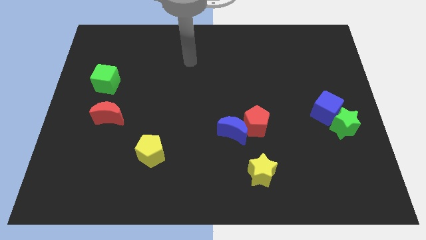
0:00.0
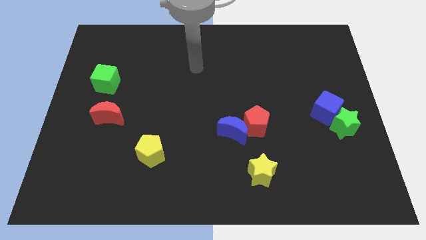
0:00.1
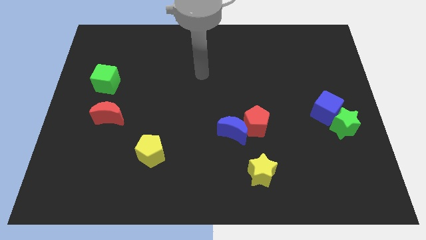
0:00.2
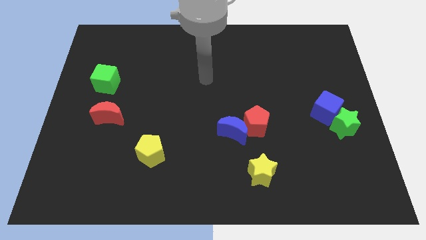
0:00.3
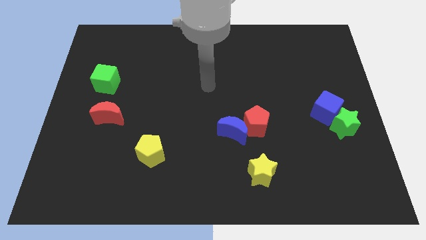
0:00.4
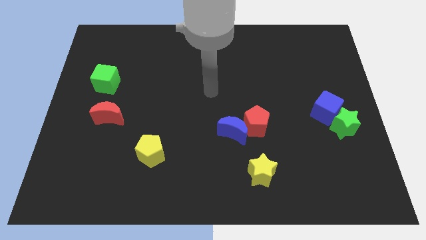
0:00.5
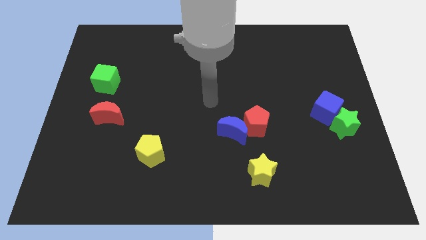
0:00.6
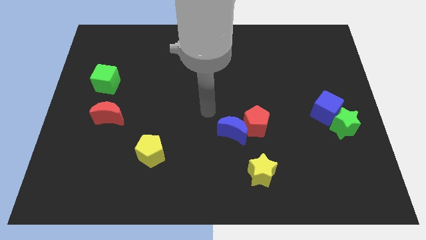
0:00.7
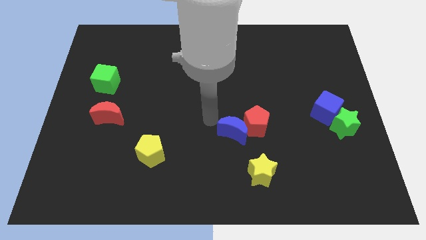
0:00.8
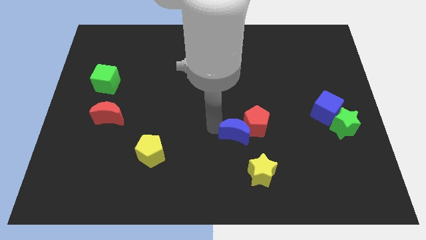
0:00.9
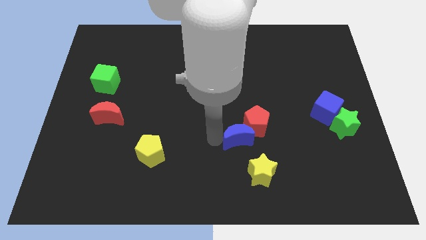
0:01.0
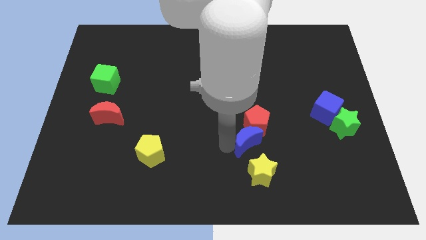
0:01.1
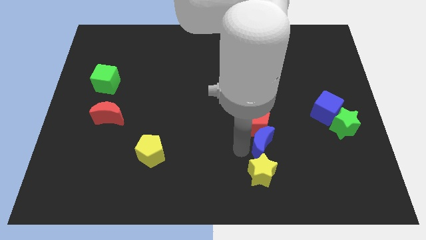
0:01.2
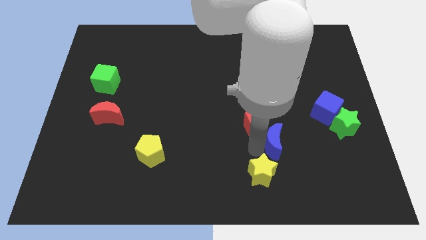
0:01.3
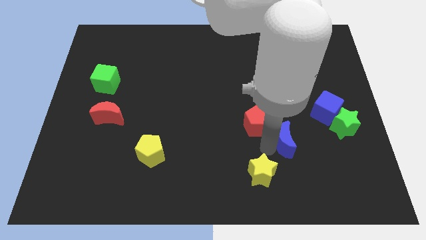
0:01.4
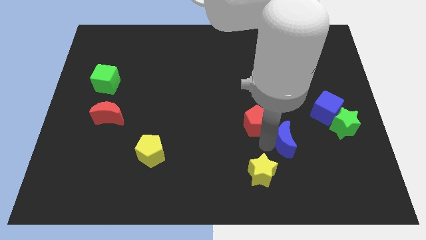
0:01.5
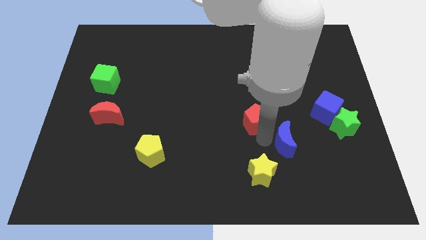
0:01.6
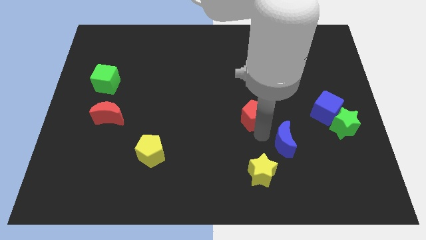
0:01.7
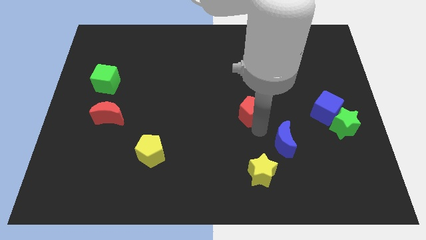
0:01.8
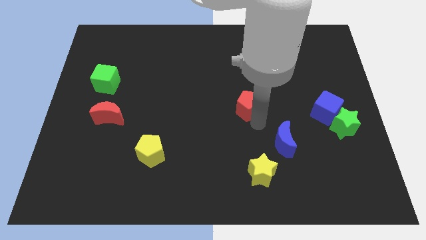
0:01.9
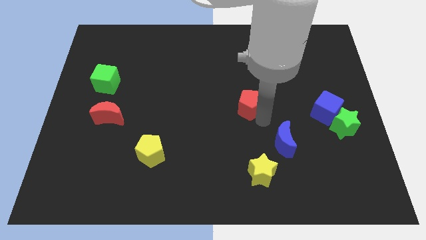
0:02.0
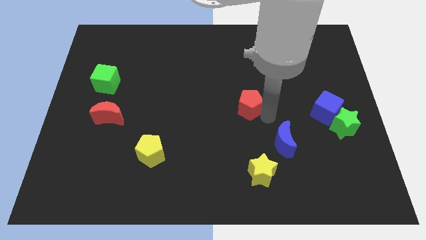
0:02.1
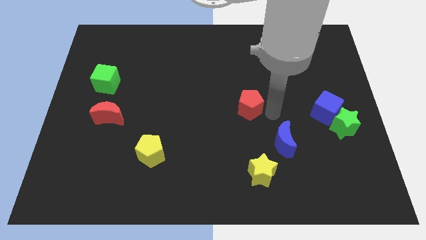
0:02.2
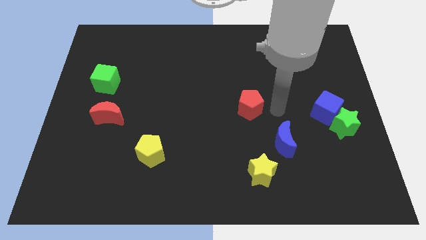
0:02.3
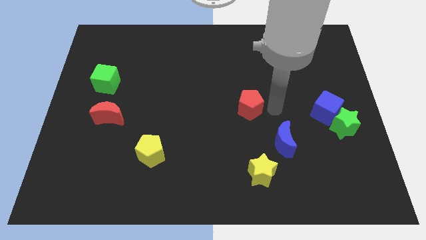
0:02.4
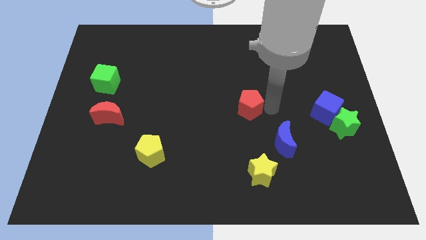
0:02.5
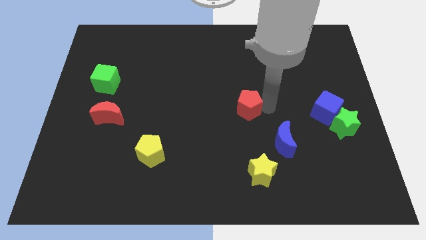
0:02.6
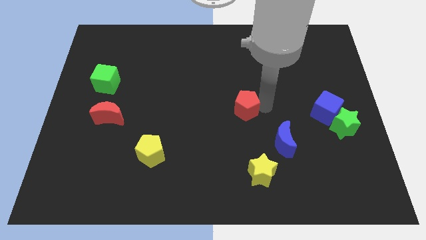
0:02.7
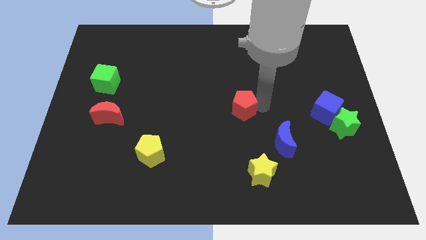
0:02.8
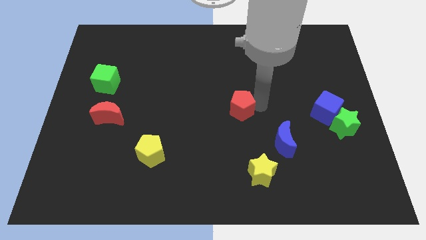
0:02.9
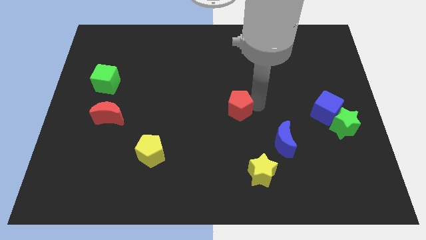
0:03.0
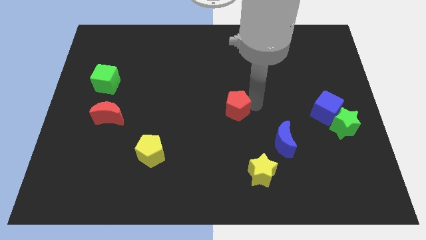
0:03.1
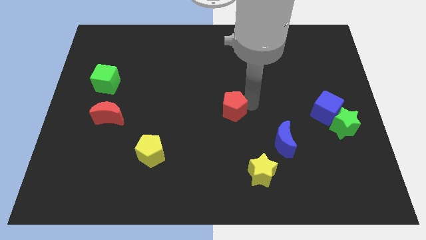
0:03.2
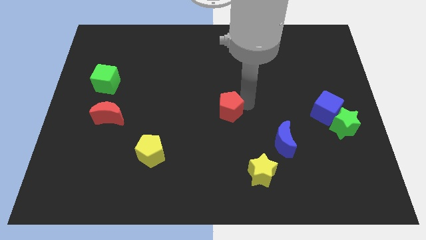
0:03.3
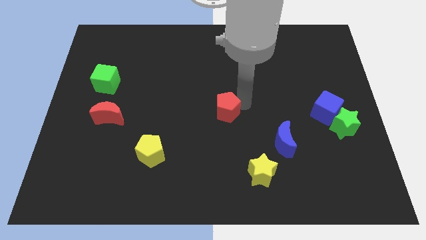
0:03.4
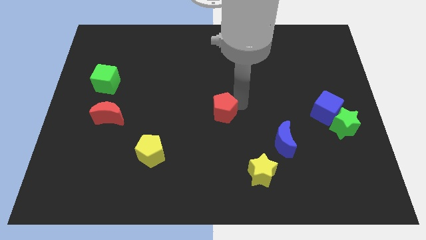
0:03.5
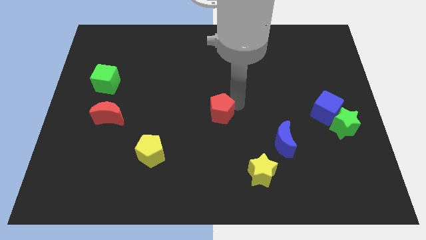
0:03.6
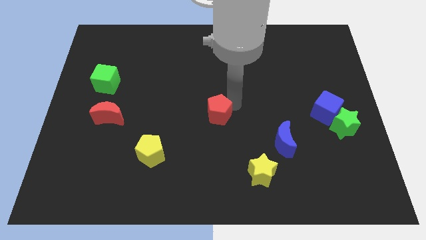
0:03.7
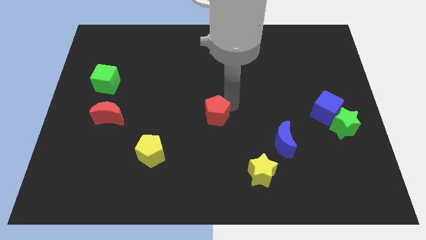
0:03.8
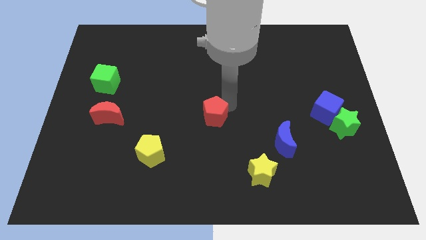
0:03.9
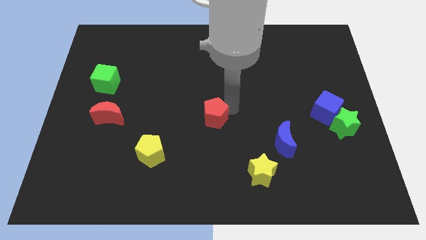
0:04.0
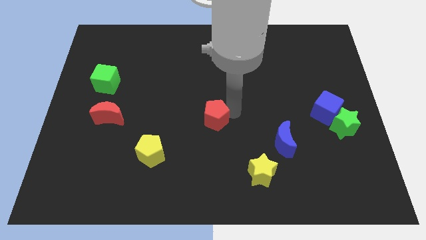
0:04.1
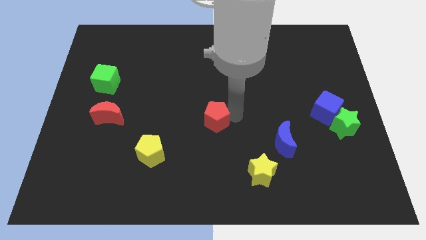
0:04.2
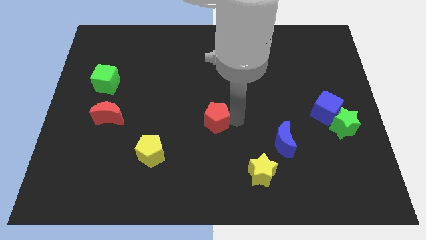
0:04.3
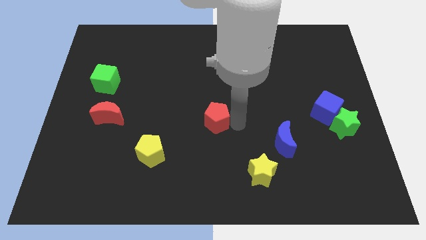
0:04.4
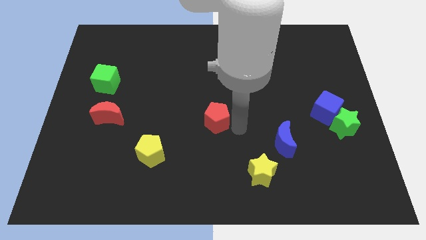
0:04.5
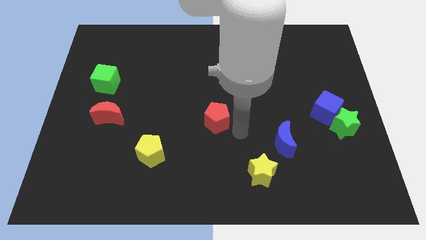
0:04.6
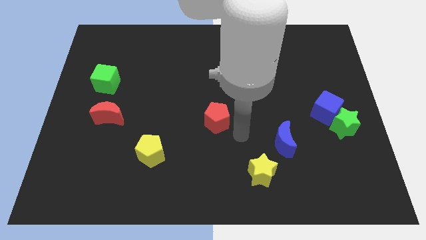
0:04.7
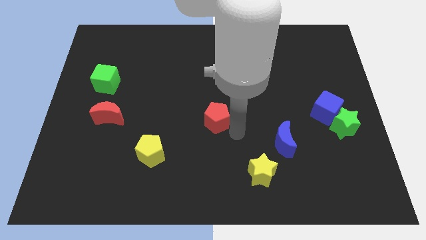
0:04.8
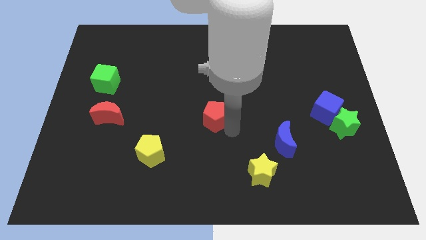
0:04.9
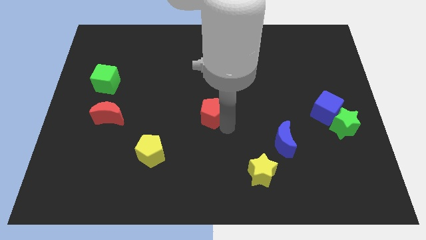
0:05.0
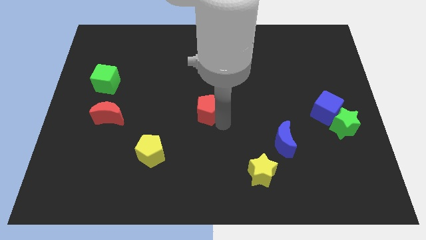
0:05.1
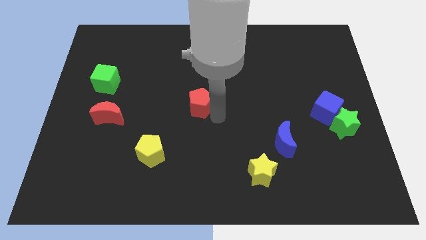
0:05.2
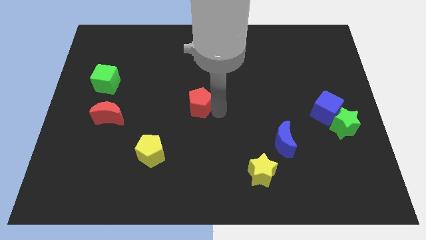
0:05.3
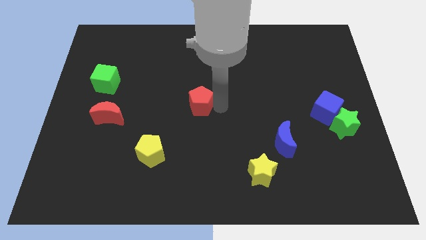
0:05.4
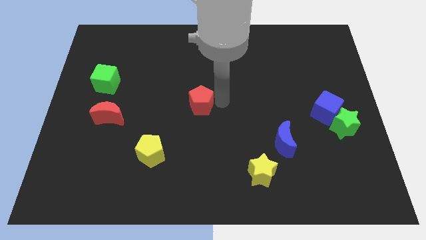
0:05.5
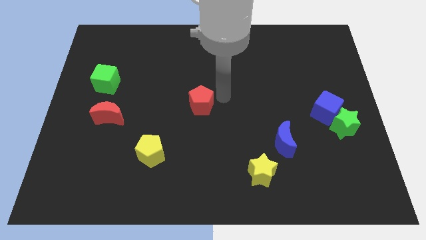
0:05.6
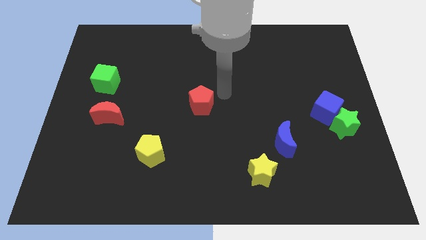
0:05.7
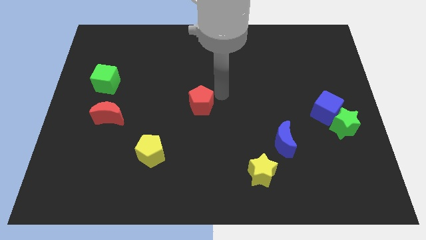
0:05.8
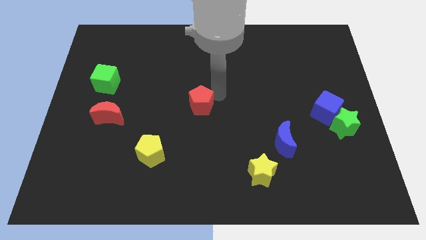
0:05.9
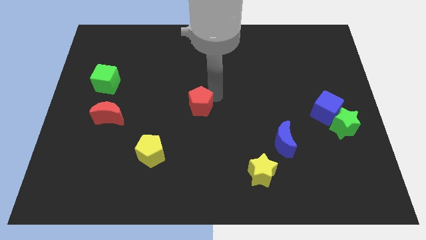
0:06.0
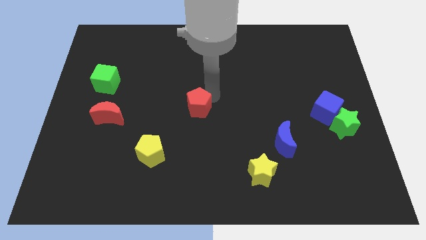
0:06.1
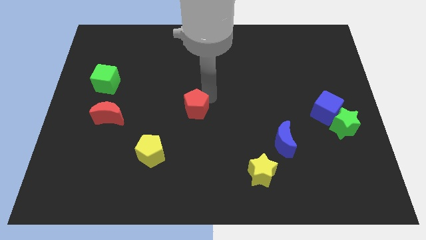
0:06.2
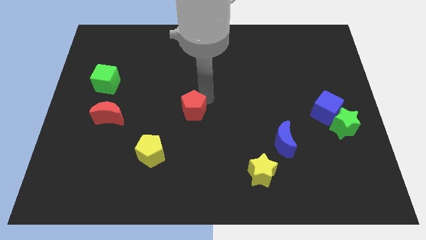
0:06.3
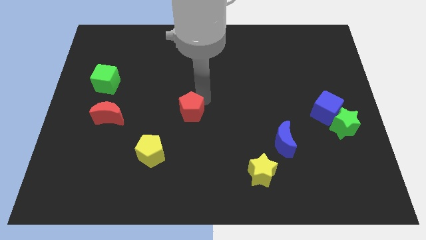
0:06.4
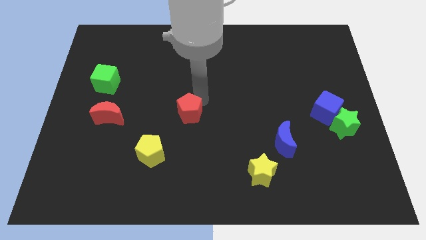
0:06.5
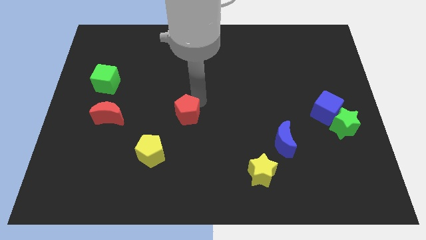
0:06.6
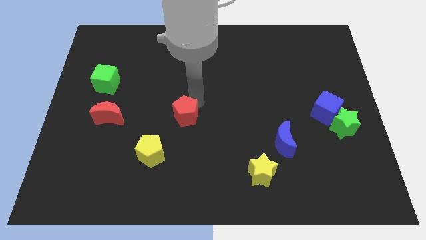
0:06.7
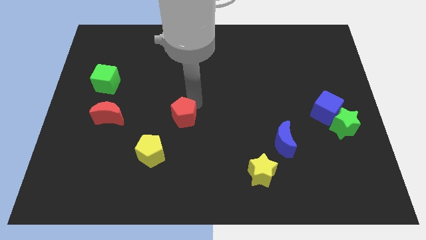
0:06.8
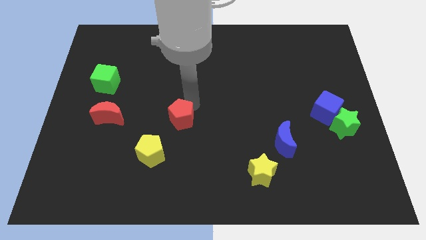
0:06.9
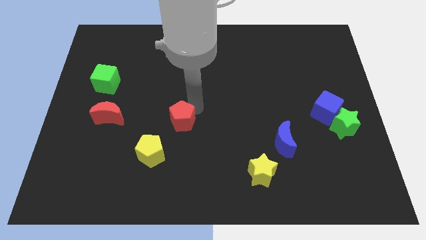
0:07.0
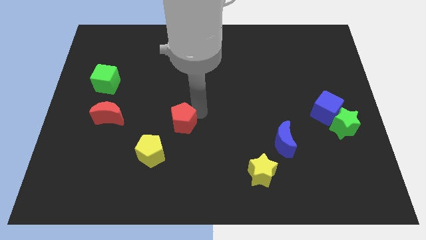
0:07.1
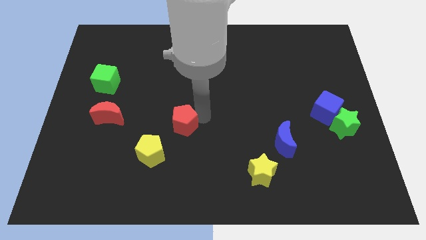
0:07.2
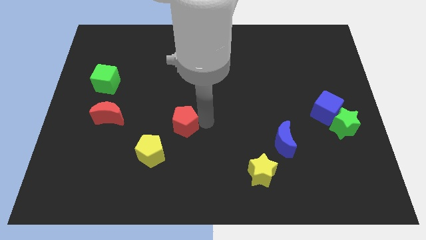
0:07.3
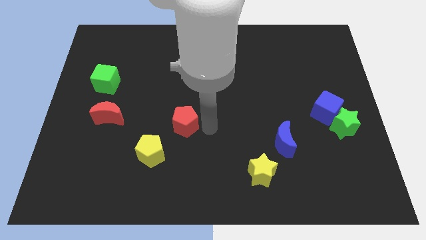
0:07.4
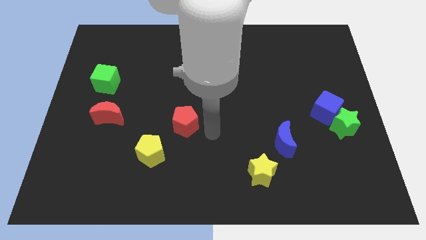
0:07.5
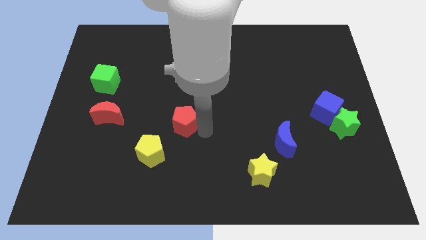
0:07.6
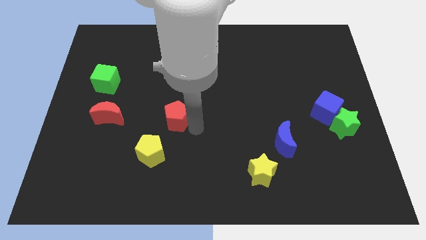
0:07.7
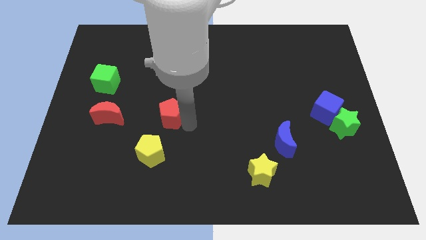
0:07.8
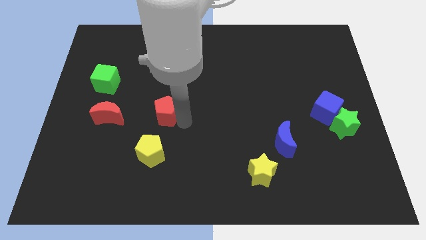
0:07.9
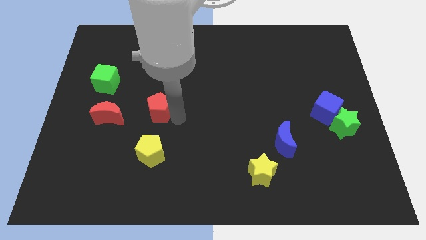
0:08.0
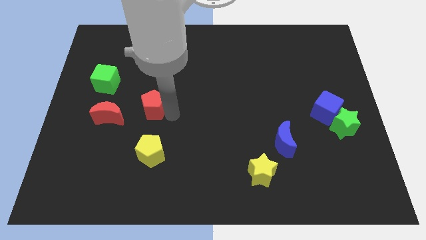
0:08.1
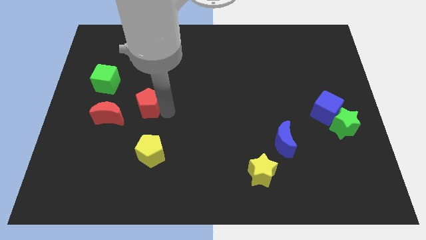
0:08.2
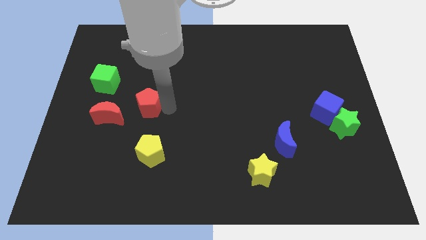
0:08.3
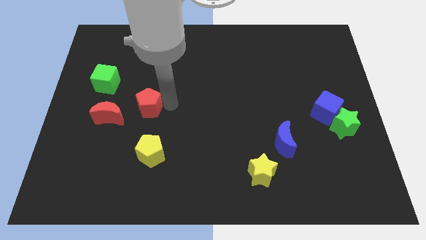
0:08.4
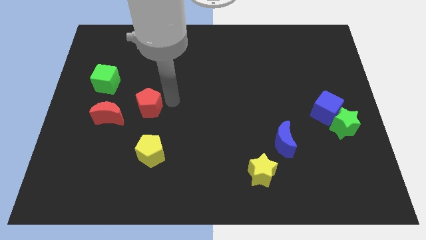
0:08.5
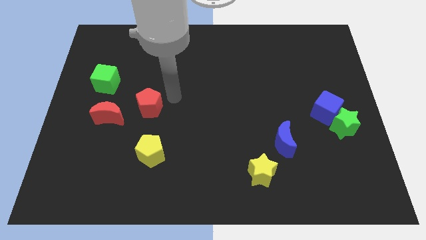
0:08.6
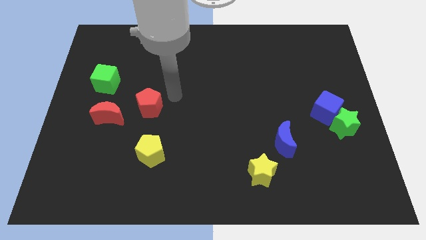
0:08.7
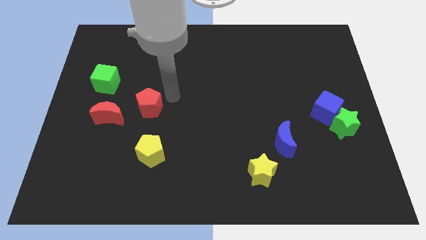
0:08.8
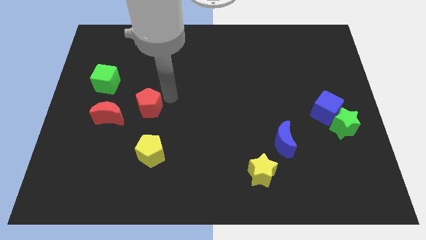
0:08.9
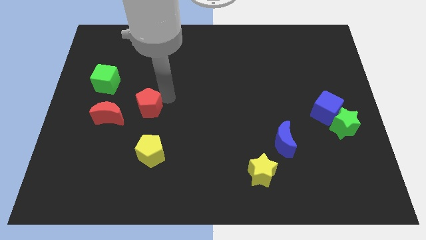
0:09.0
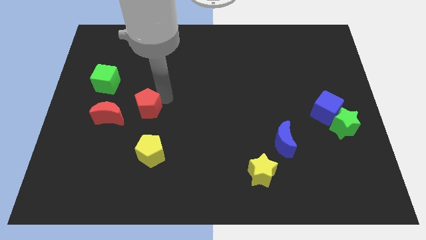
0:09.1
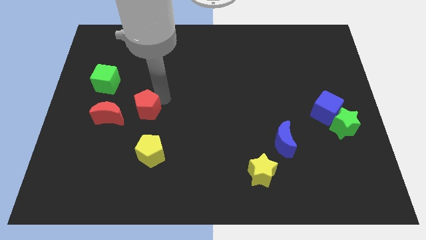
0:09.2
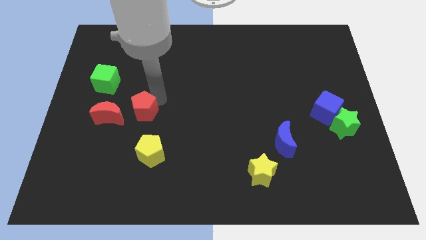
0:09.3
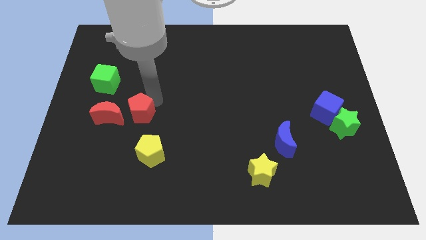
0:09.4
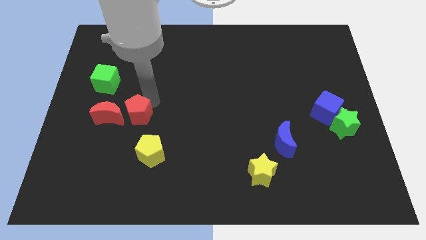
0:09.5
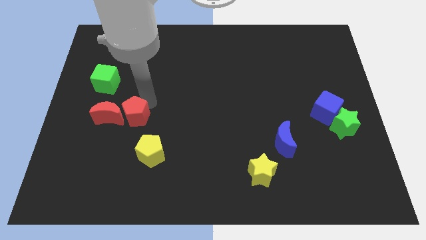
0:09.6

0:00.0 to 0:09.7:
put the red pentagon towards the red moon
